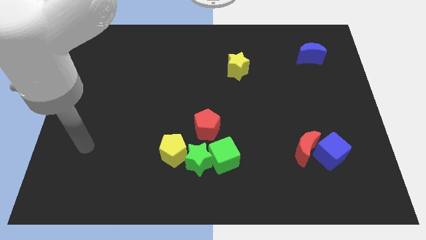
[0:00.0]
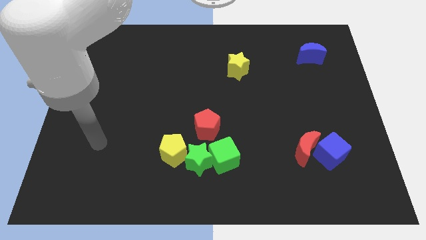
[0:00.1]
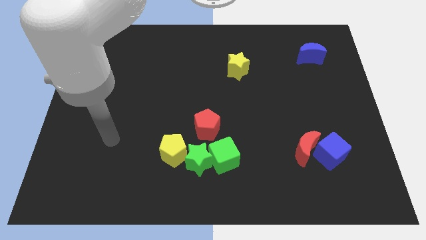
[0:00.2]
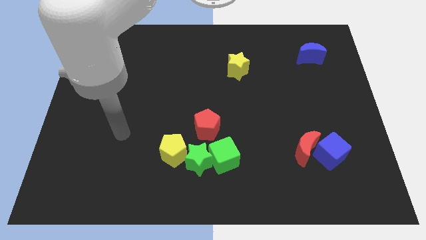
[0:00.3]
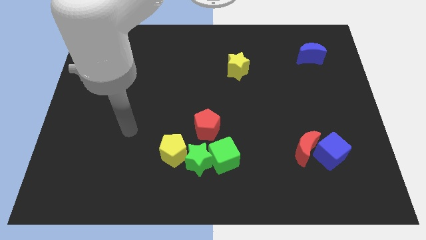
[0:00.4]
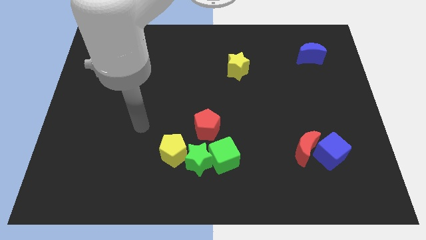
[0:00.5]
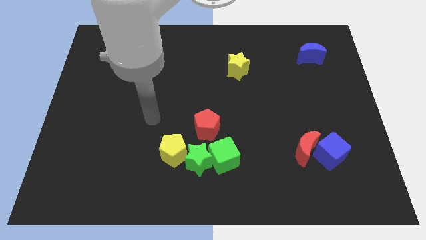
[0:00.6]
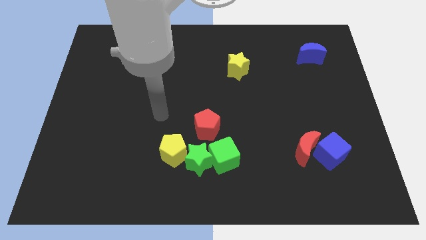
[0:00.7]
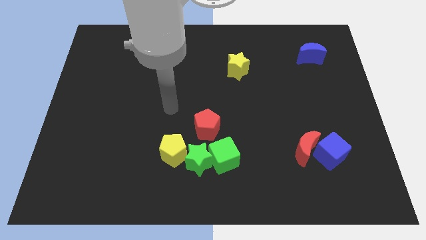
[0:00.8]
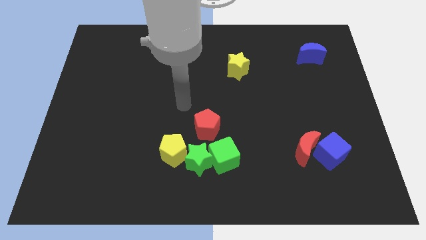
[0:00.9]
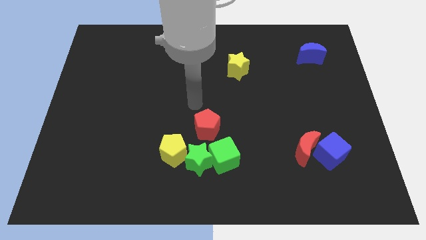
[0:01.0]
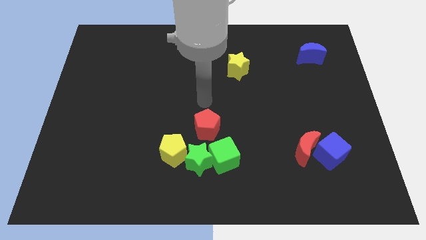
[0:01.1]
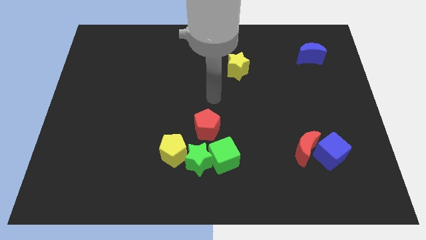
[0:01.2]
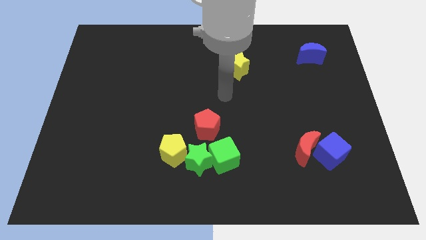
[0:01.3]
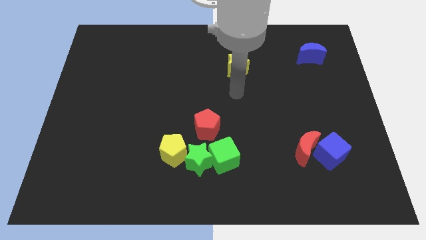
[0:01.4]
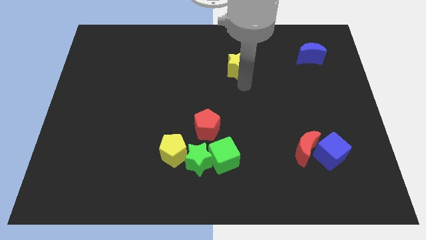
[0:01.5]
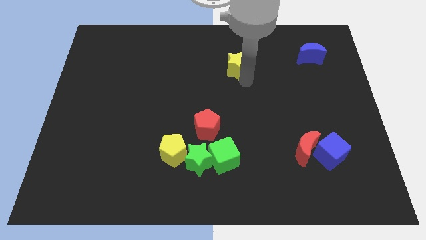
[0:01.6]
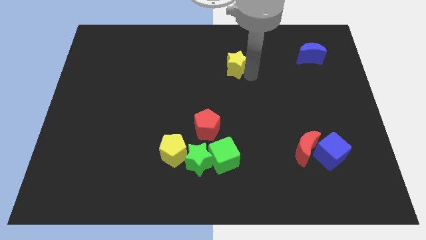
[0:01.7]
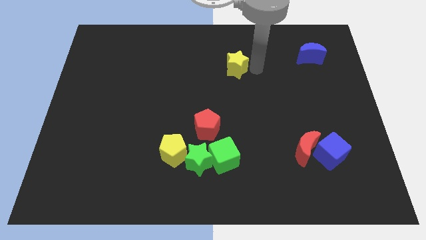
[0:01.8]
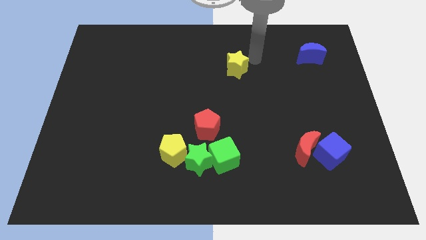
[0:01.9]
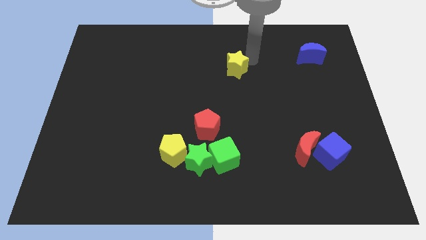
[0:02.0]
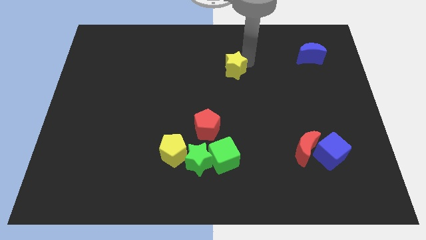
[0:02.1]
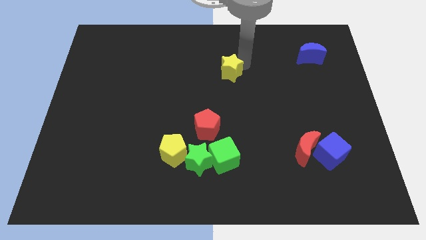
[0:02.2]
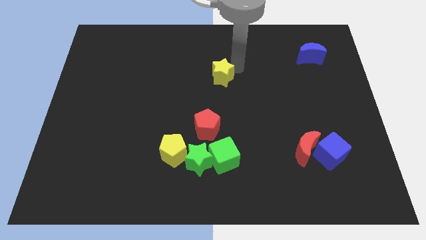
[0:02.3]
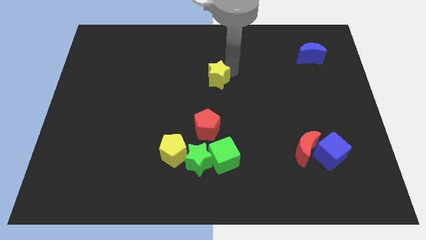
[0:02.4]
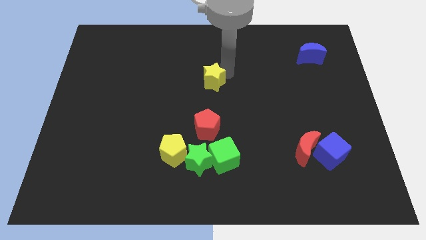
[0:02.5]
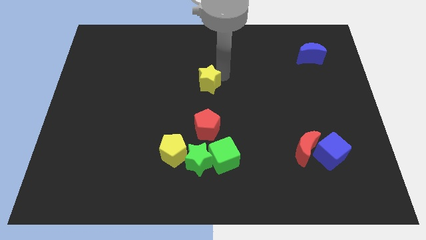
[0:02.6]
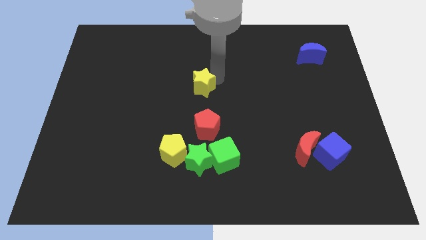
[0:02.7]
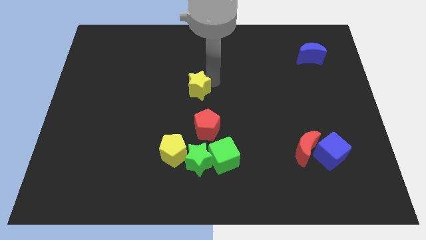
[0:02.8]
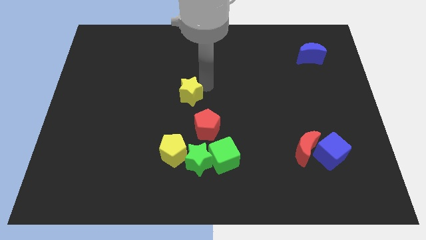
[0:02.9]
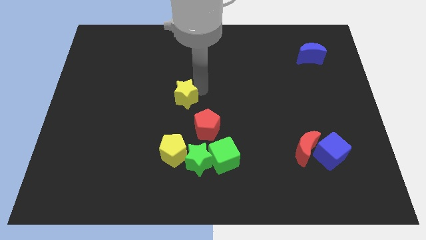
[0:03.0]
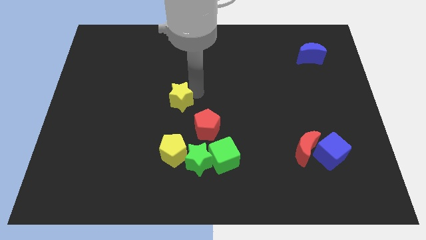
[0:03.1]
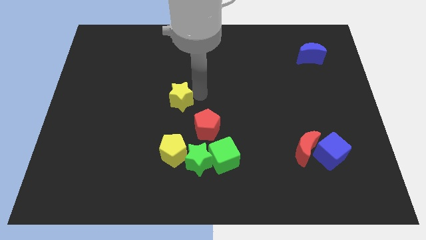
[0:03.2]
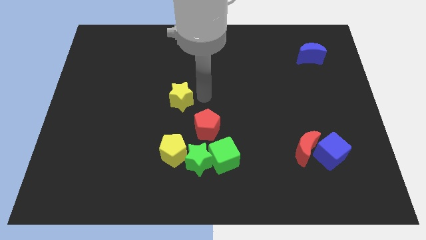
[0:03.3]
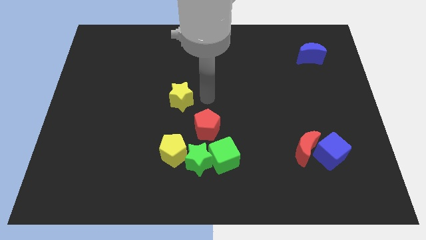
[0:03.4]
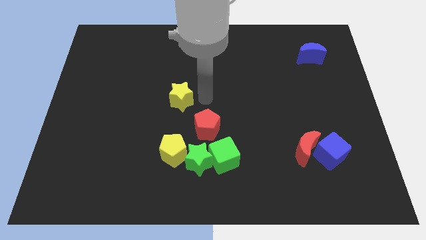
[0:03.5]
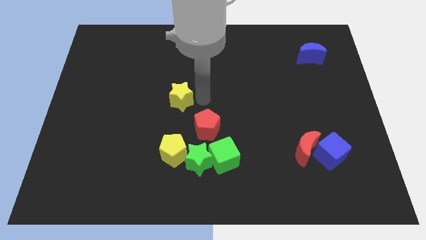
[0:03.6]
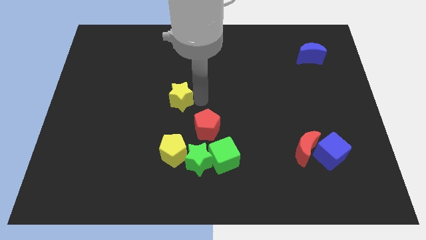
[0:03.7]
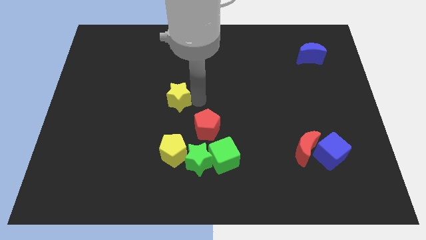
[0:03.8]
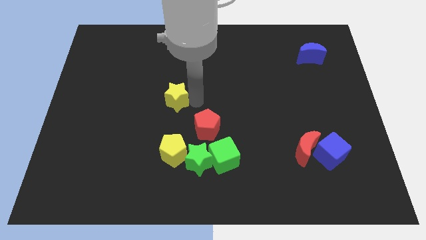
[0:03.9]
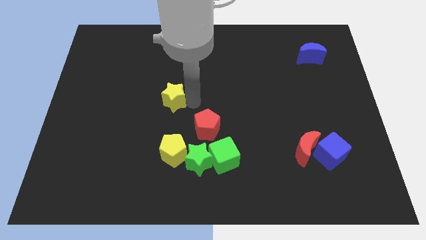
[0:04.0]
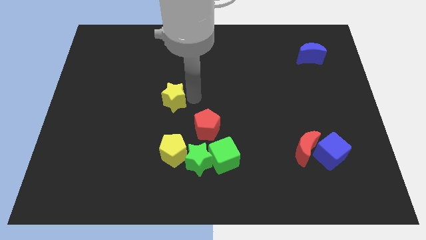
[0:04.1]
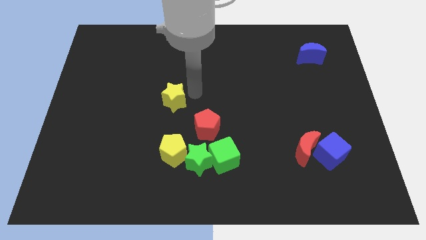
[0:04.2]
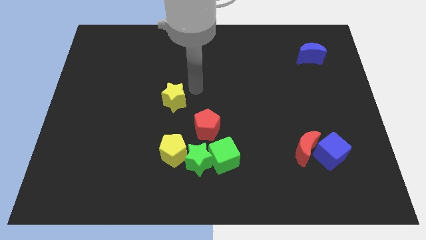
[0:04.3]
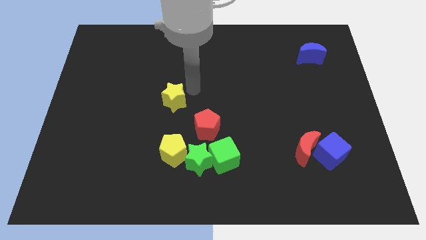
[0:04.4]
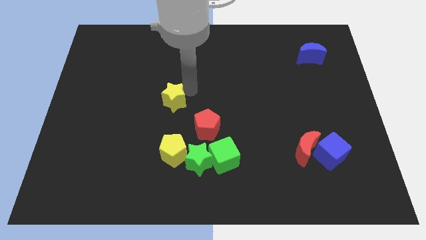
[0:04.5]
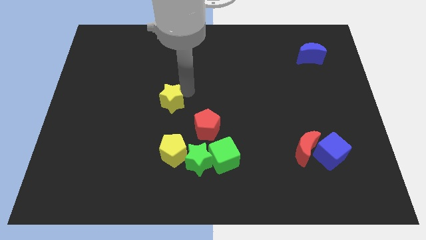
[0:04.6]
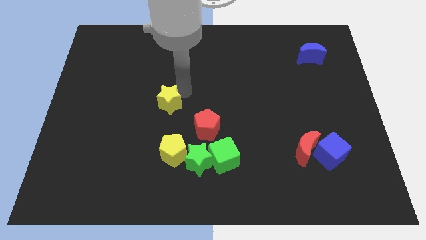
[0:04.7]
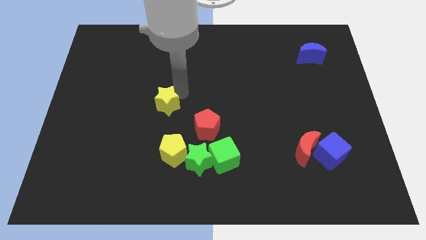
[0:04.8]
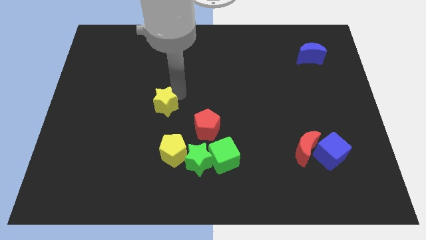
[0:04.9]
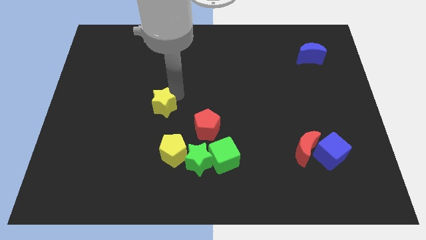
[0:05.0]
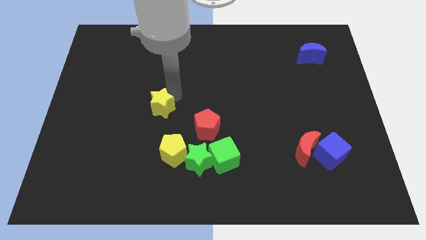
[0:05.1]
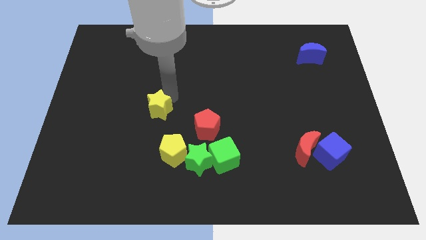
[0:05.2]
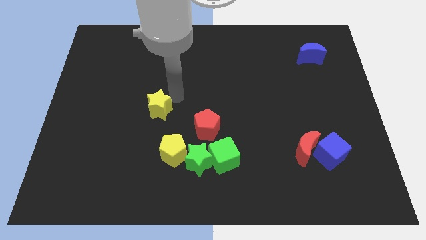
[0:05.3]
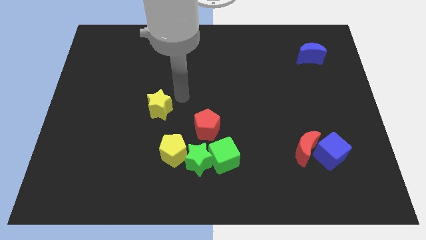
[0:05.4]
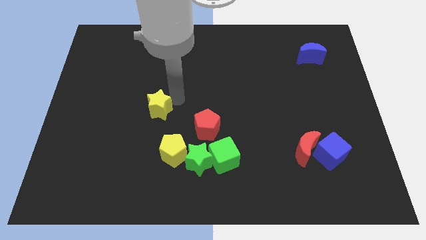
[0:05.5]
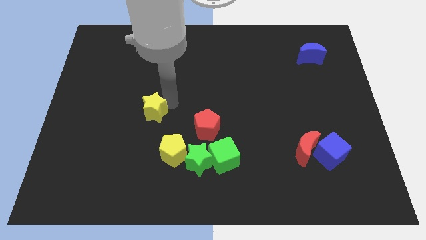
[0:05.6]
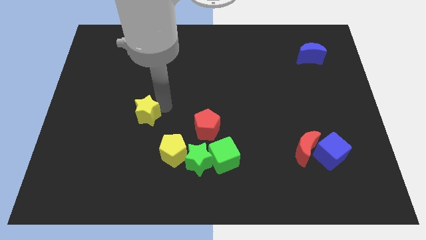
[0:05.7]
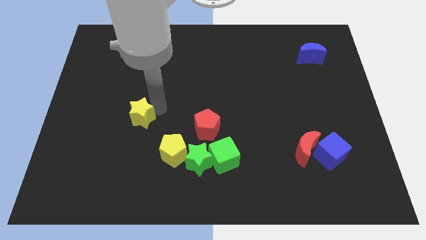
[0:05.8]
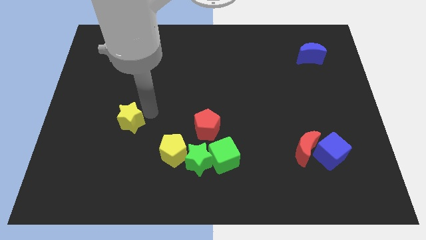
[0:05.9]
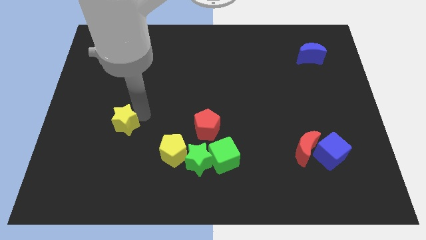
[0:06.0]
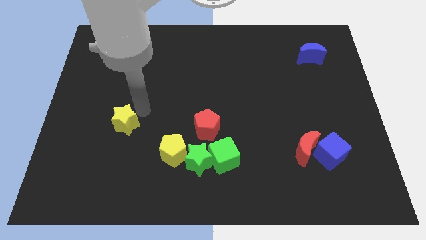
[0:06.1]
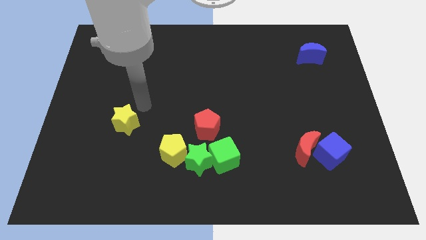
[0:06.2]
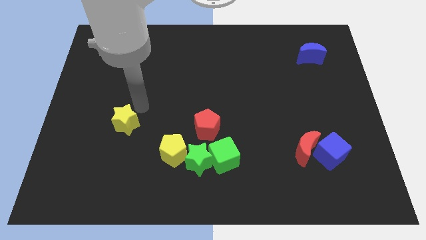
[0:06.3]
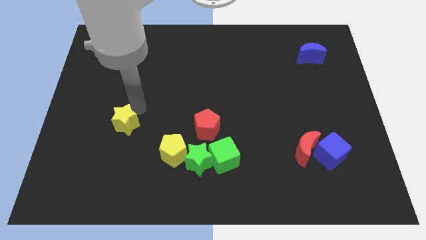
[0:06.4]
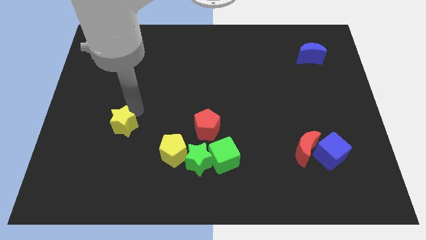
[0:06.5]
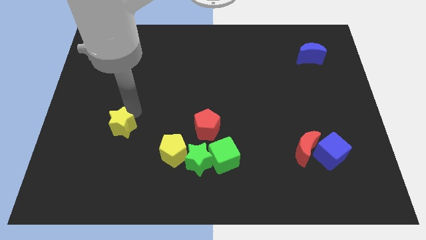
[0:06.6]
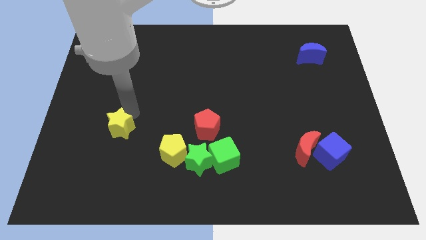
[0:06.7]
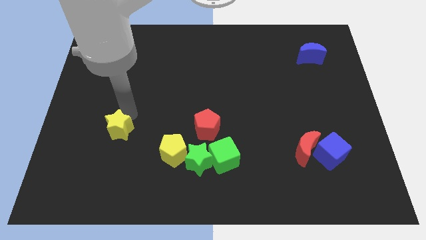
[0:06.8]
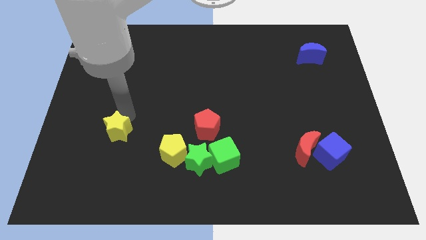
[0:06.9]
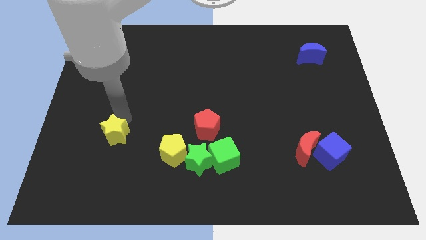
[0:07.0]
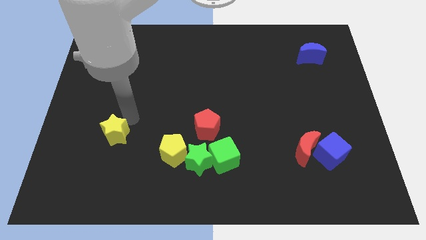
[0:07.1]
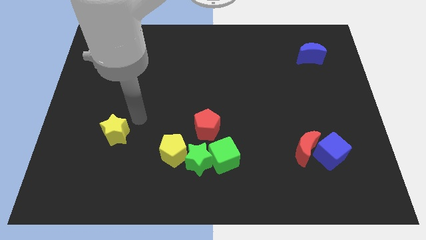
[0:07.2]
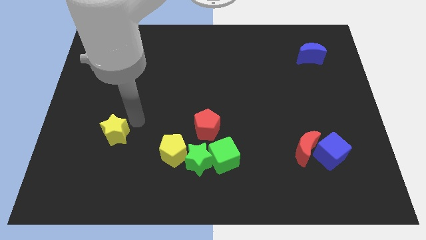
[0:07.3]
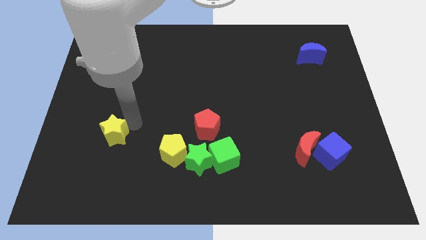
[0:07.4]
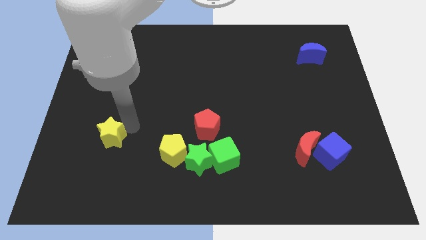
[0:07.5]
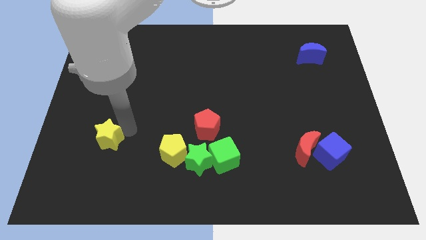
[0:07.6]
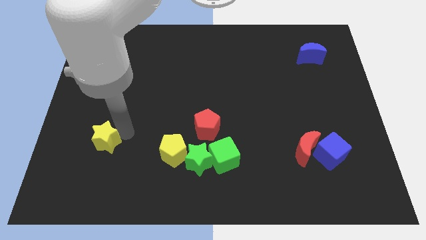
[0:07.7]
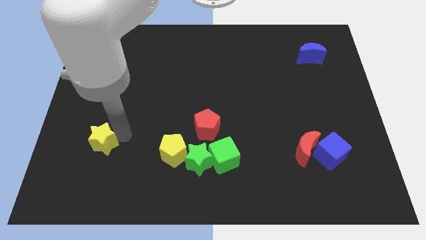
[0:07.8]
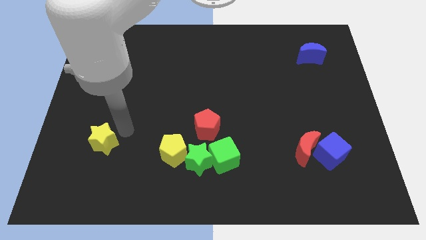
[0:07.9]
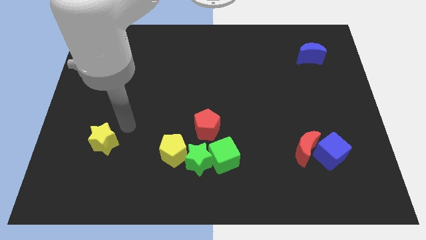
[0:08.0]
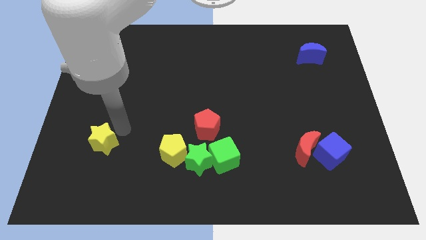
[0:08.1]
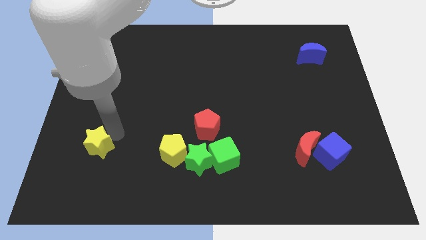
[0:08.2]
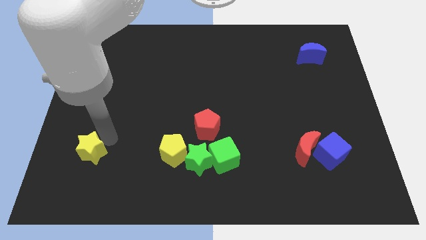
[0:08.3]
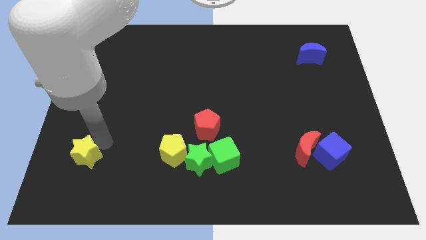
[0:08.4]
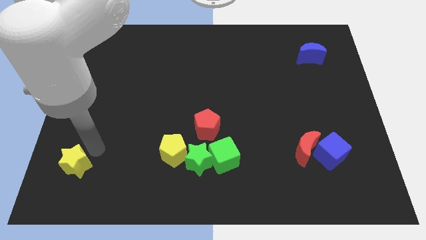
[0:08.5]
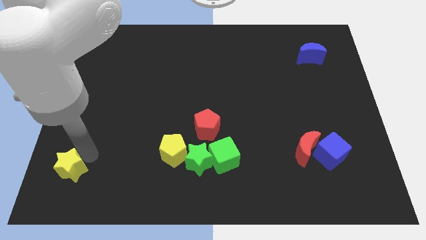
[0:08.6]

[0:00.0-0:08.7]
put the yellow star to the bottom left of the board
